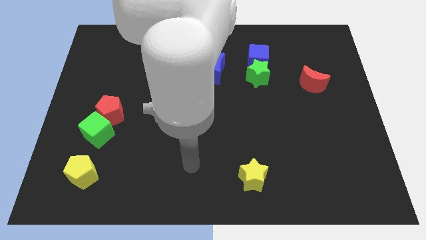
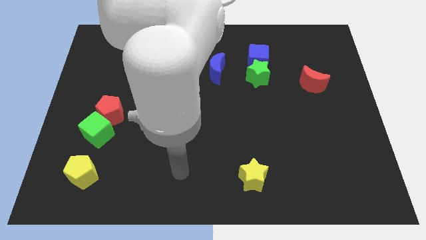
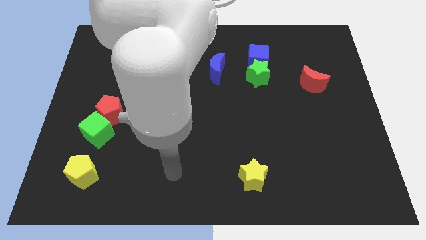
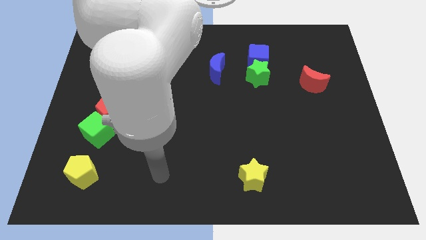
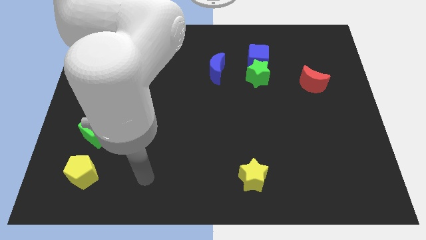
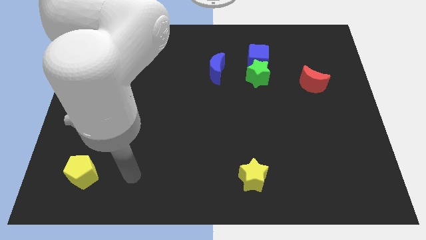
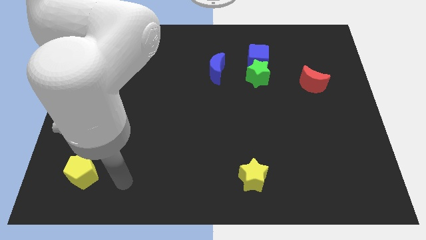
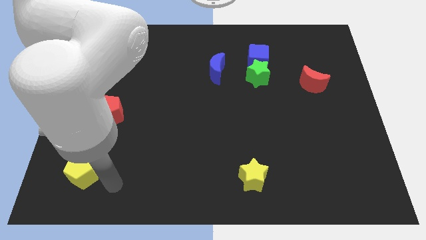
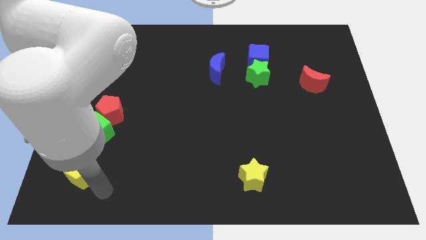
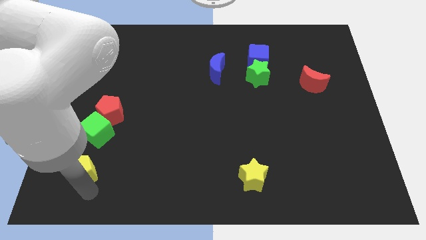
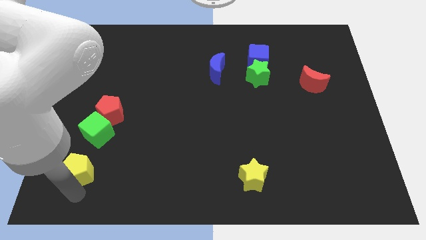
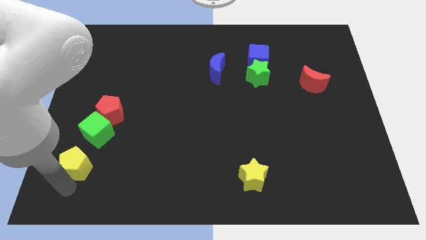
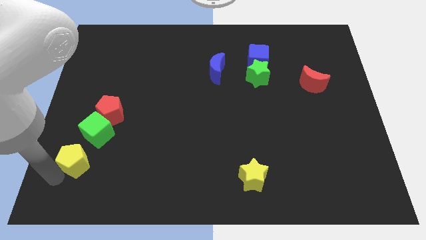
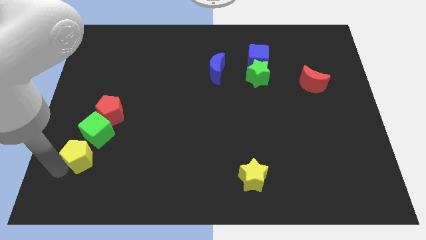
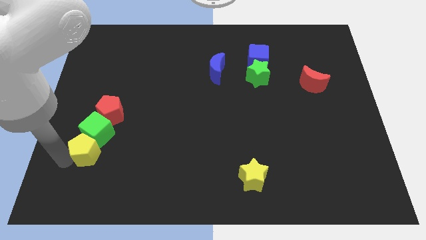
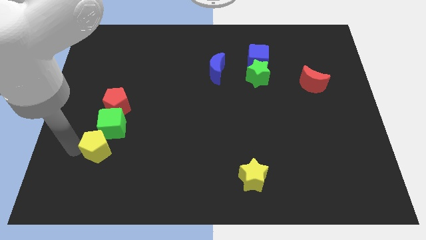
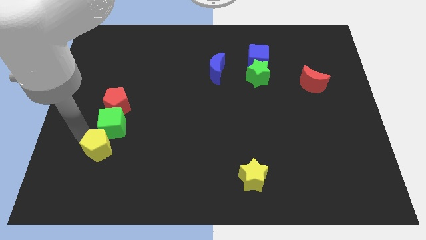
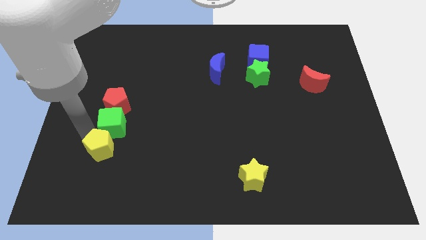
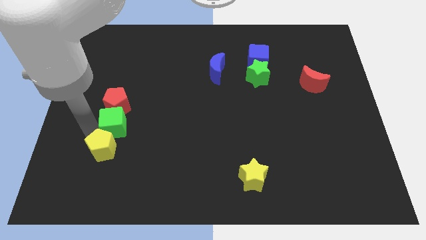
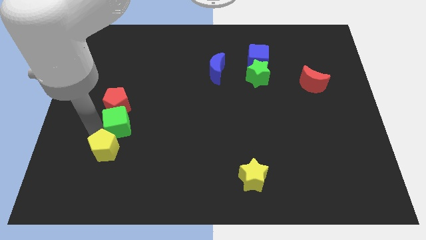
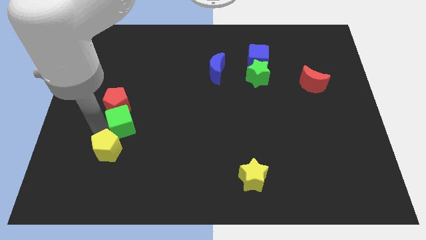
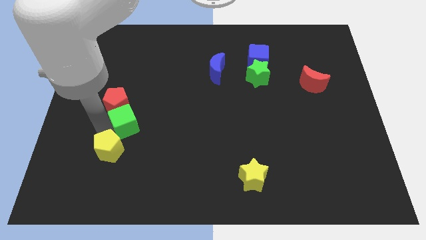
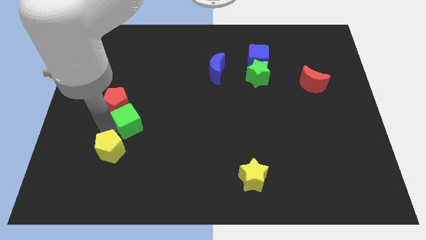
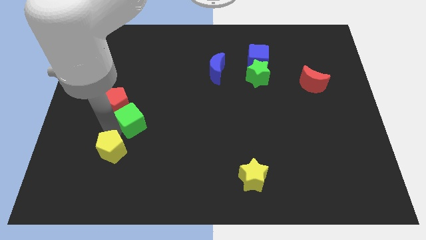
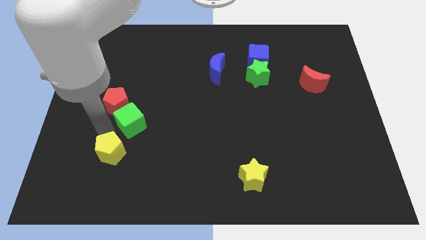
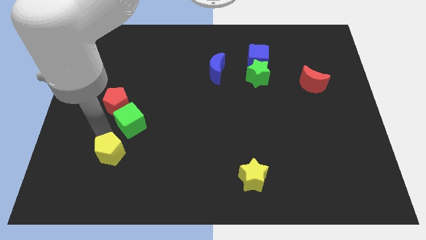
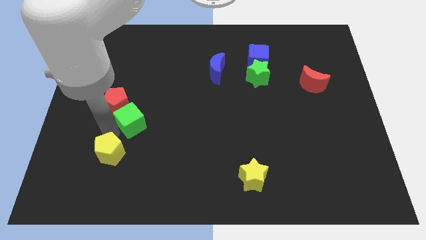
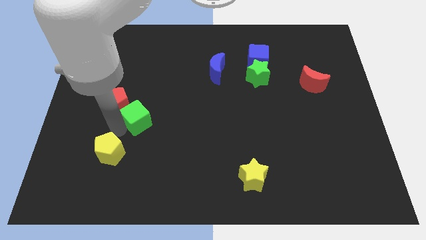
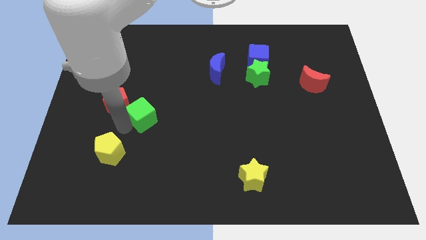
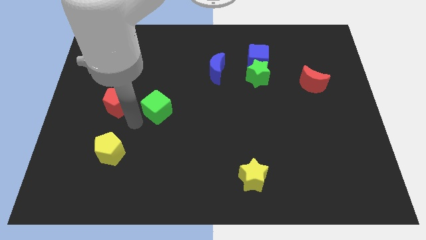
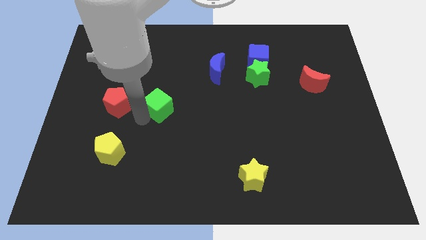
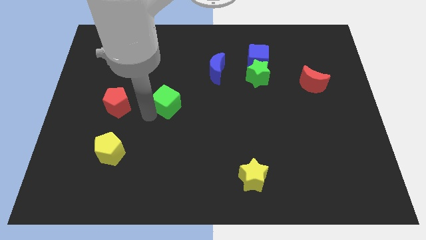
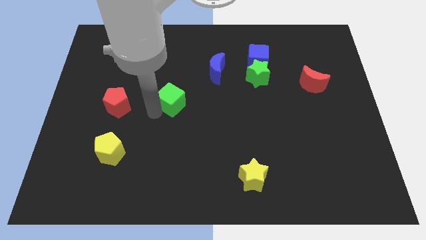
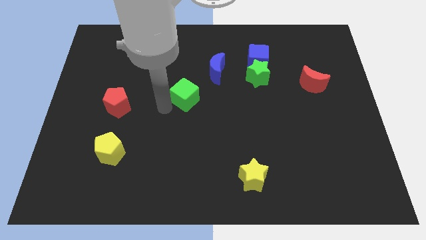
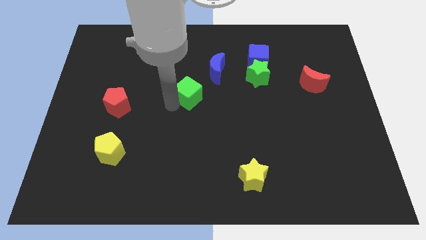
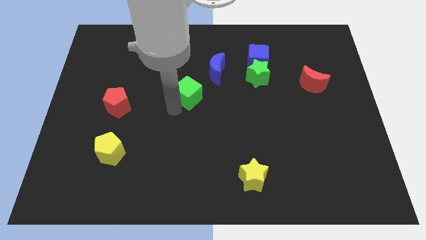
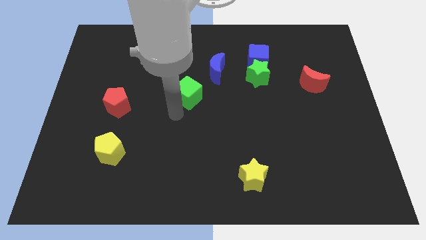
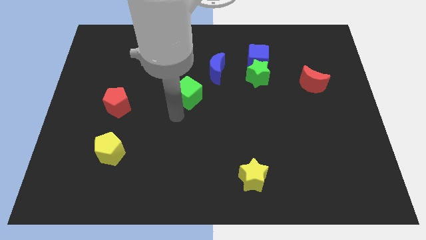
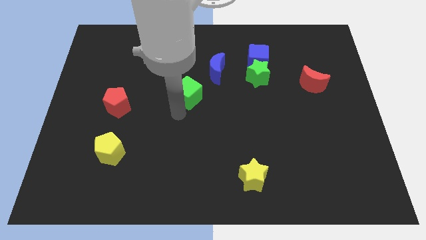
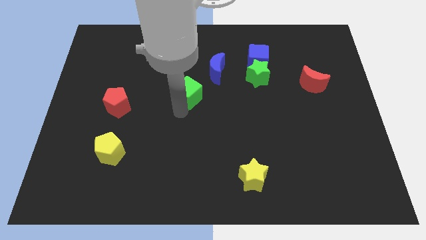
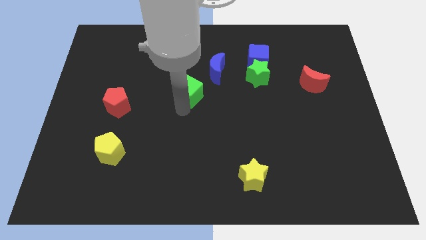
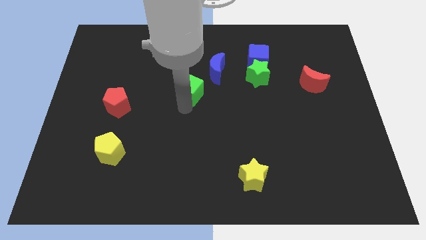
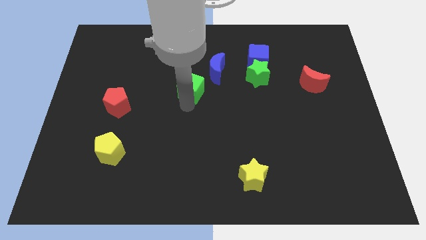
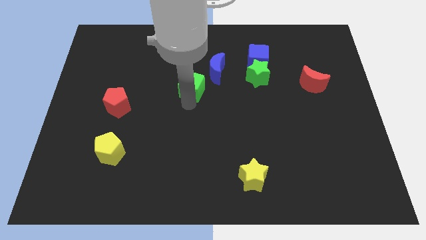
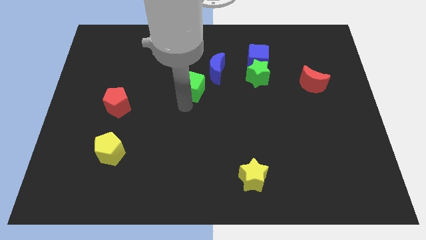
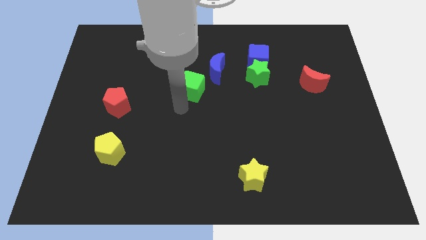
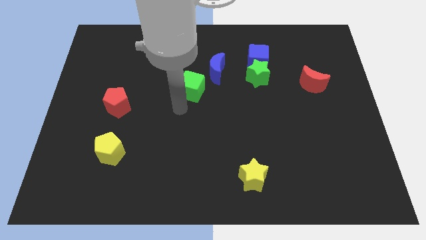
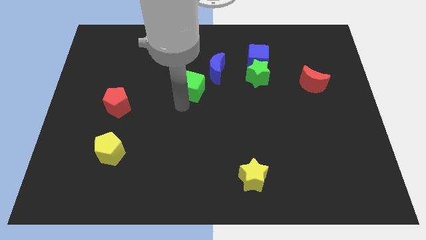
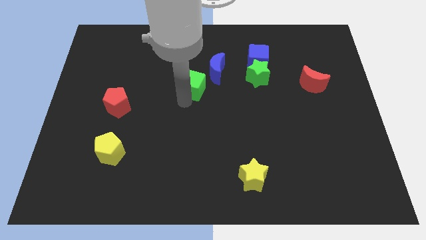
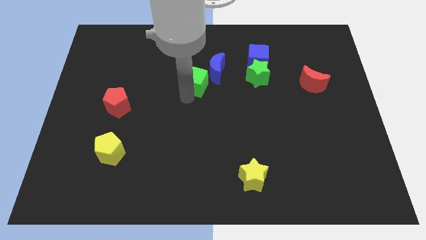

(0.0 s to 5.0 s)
push the green cube to the left of the green star

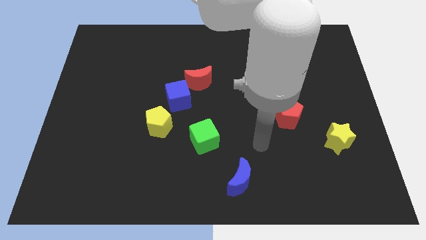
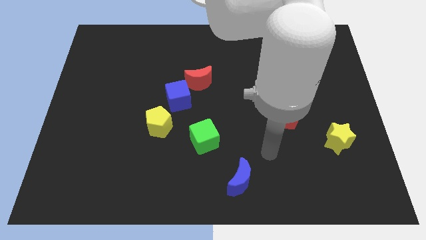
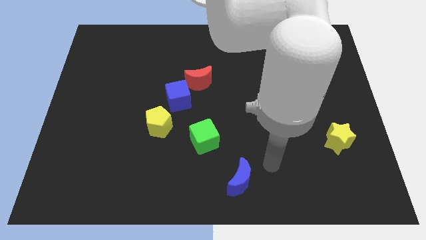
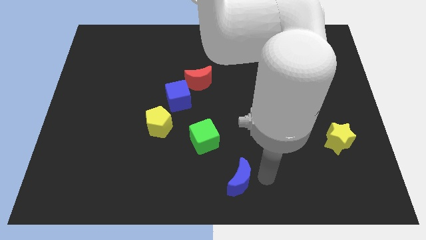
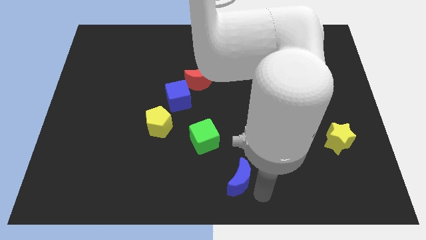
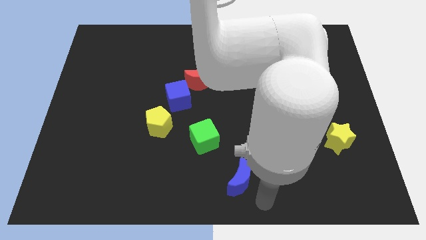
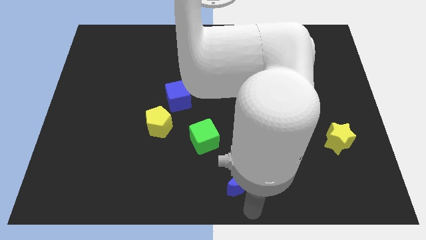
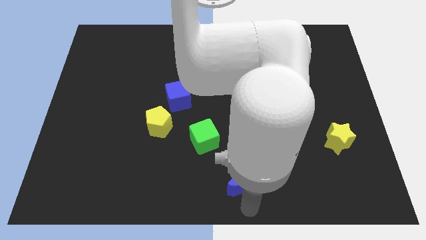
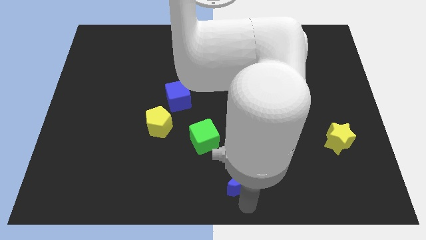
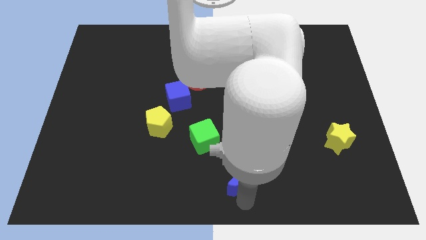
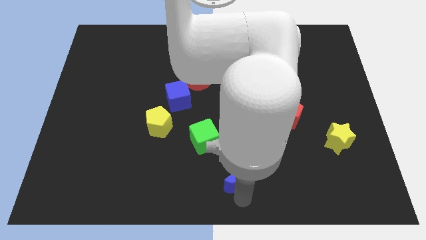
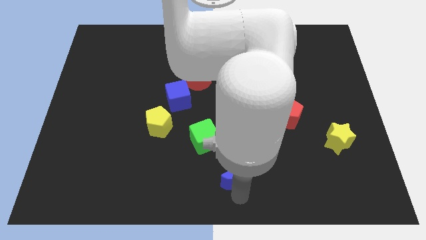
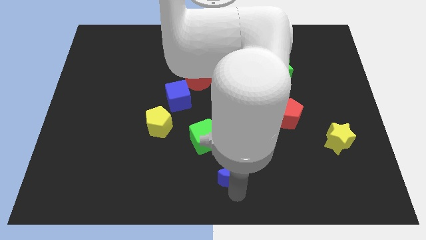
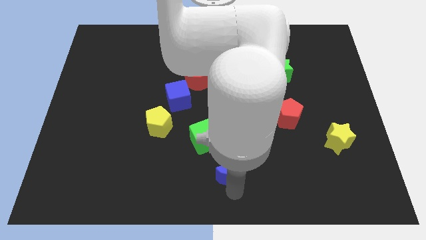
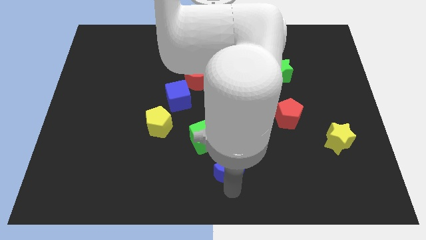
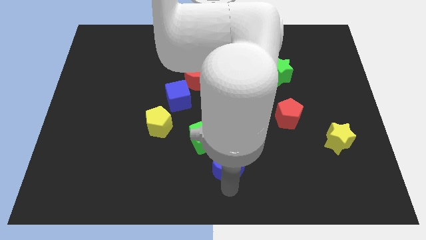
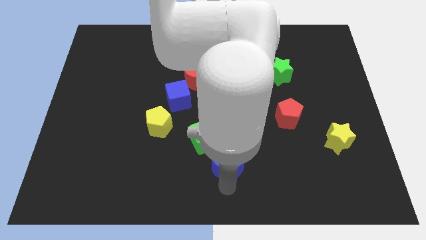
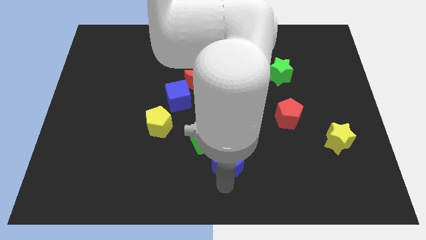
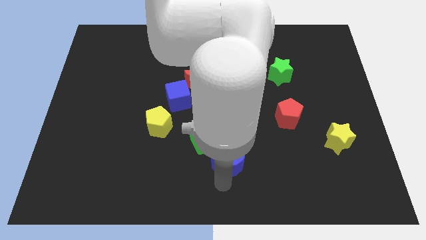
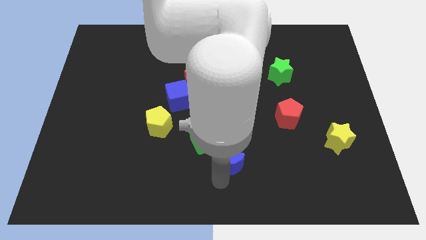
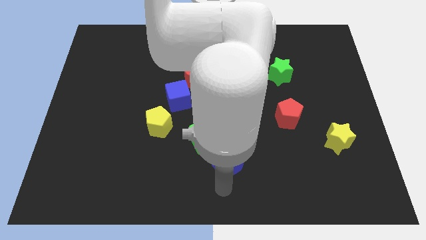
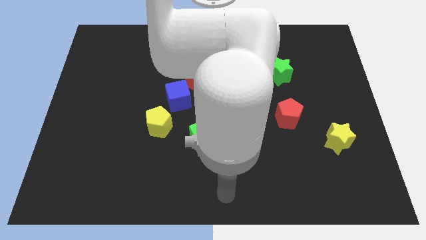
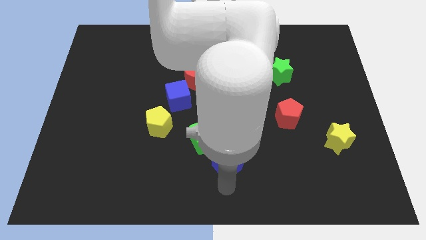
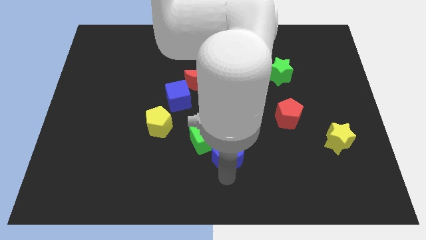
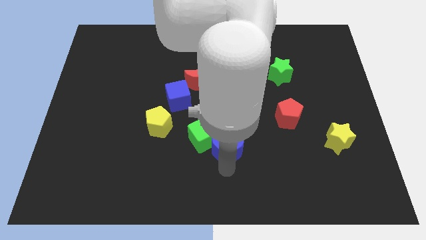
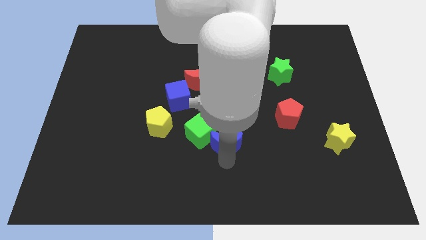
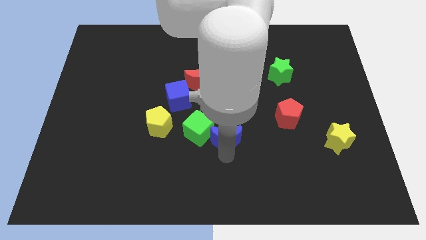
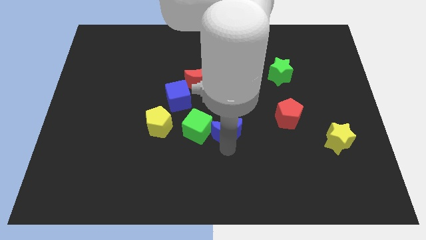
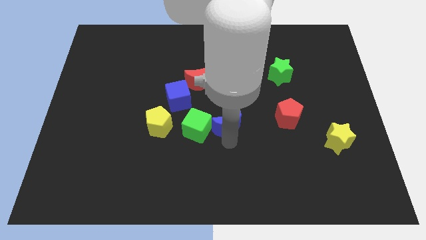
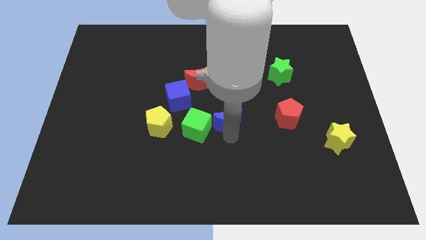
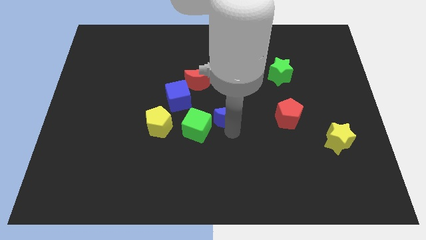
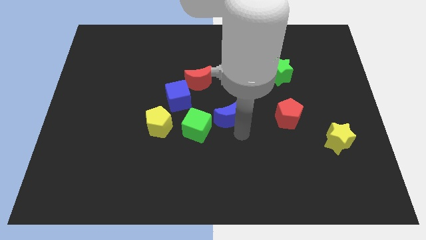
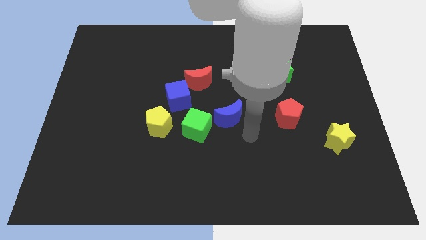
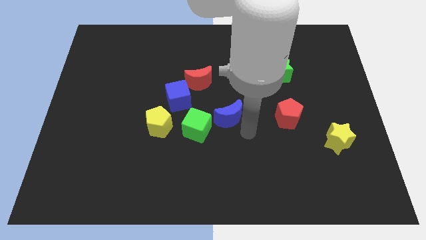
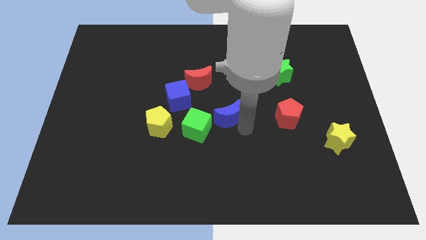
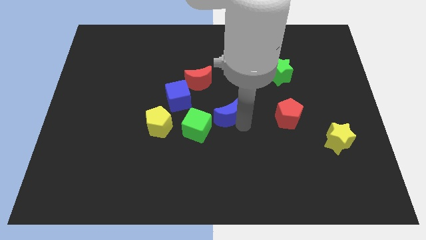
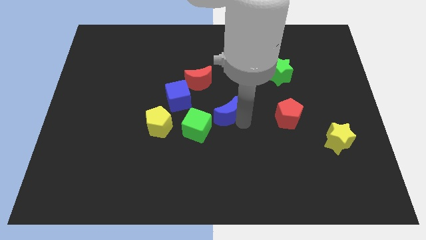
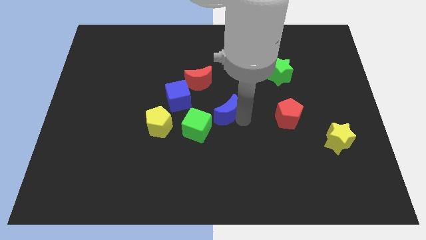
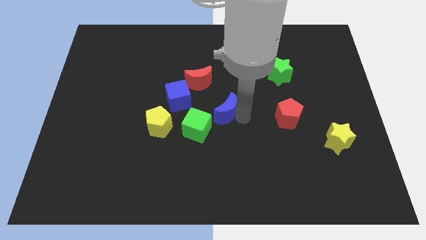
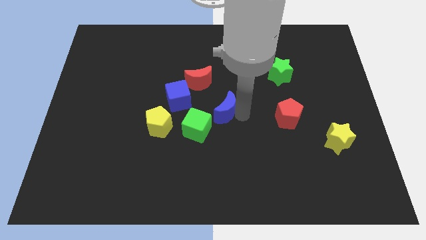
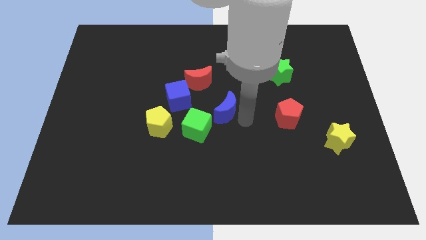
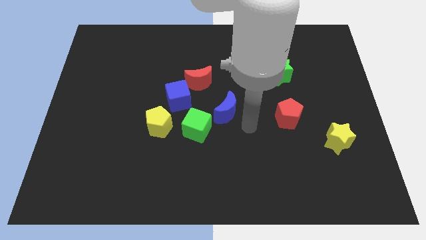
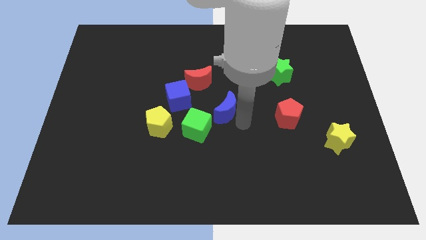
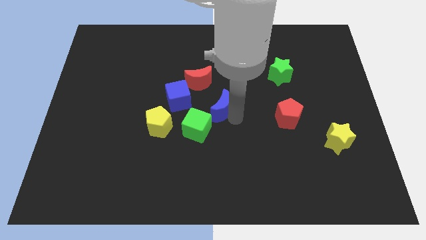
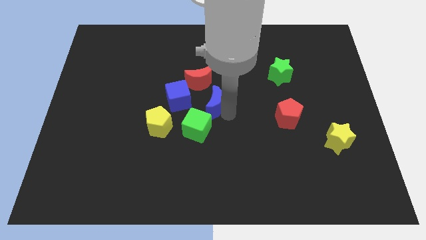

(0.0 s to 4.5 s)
move the blue moon to the top of the green cube
